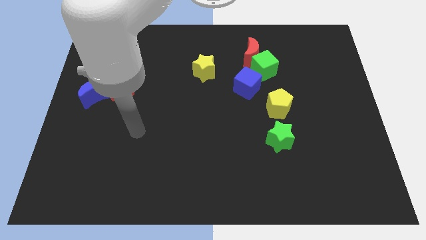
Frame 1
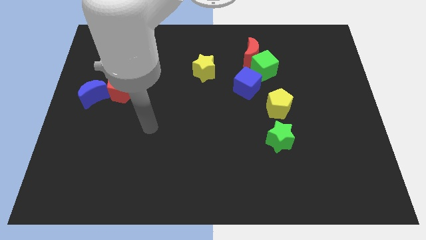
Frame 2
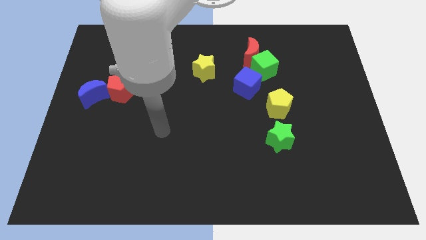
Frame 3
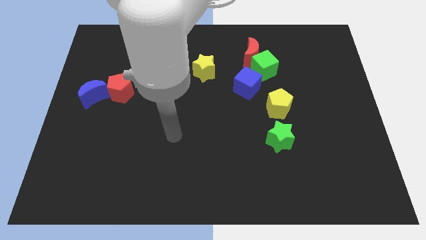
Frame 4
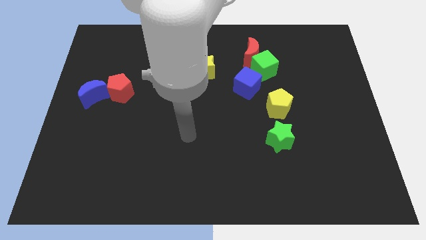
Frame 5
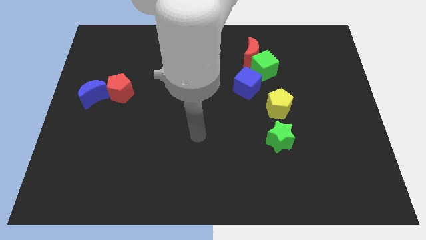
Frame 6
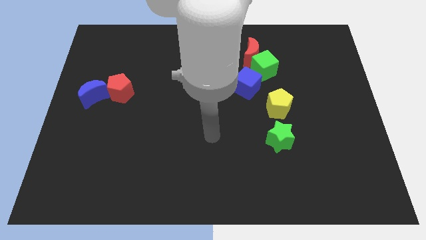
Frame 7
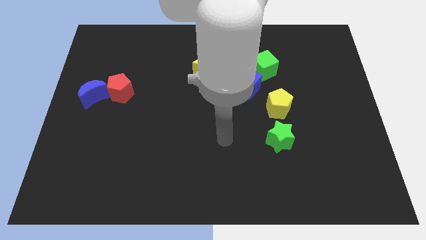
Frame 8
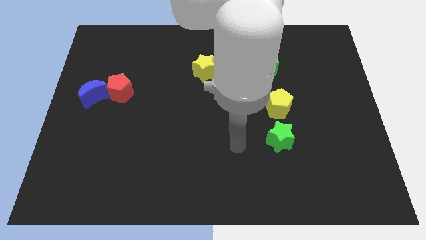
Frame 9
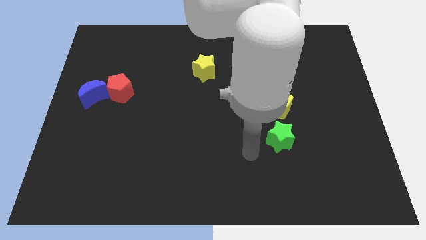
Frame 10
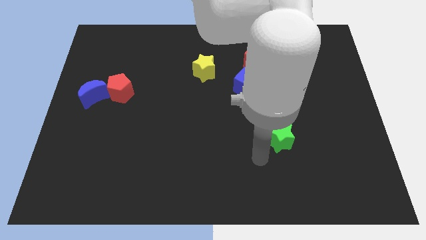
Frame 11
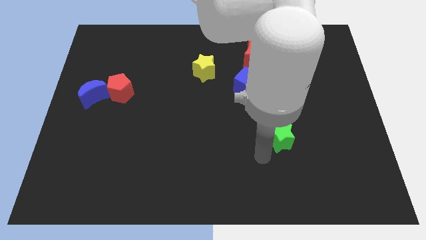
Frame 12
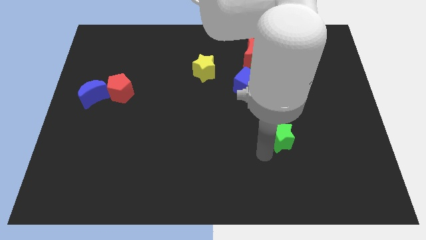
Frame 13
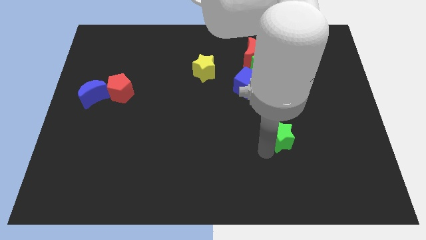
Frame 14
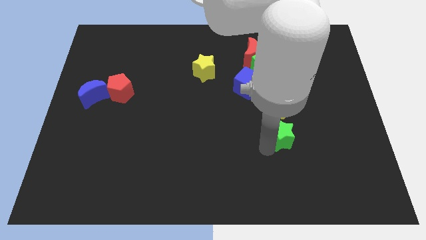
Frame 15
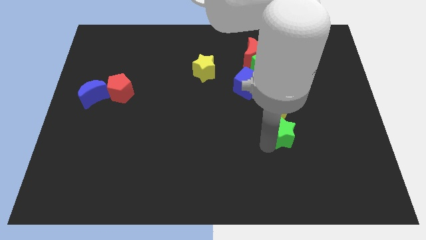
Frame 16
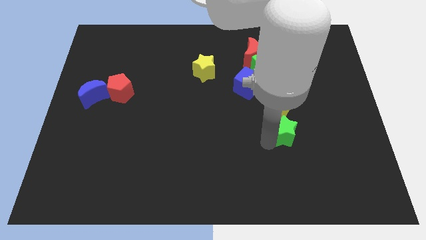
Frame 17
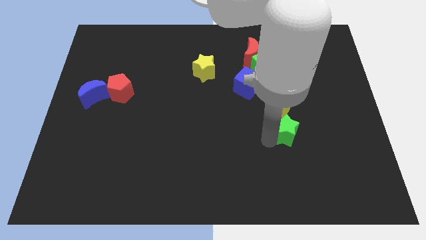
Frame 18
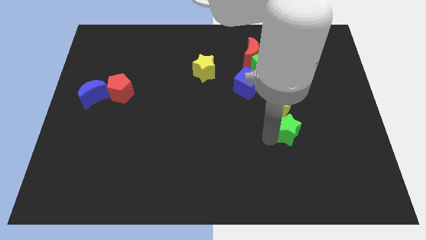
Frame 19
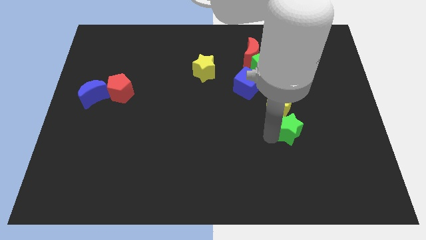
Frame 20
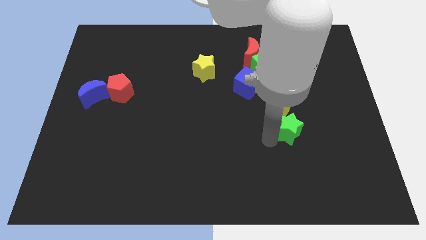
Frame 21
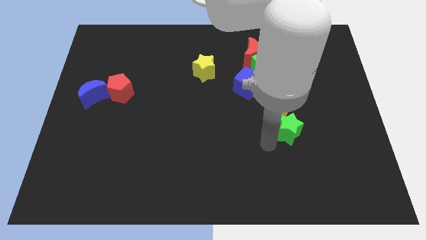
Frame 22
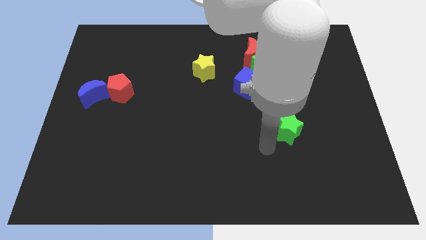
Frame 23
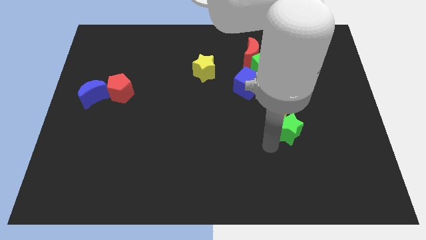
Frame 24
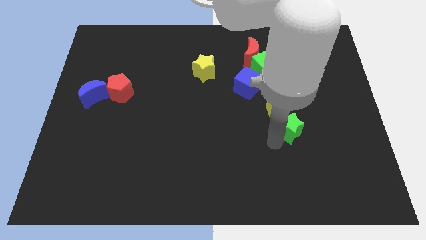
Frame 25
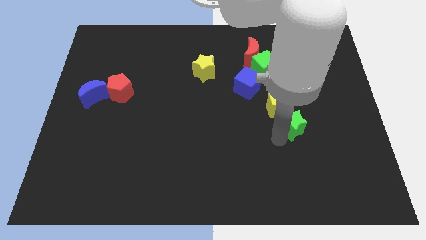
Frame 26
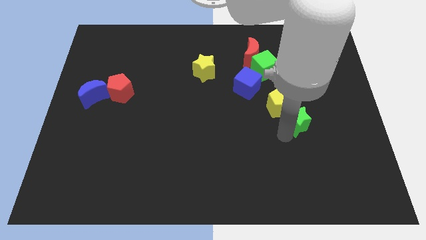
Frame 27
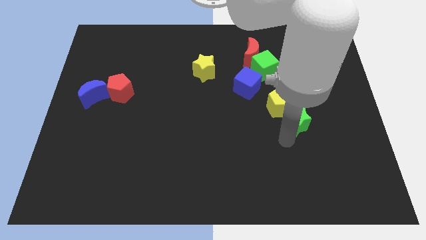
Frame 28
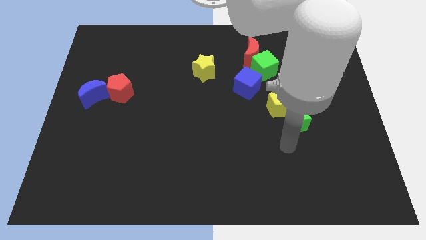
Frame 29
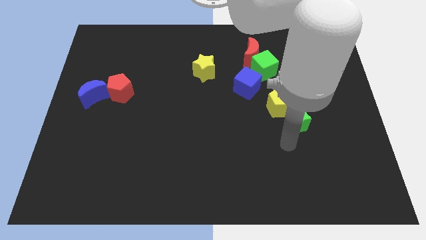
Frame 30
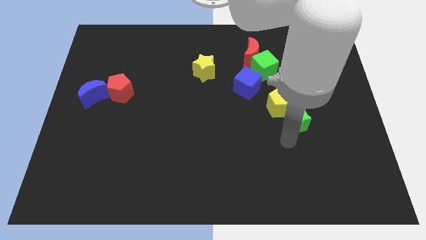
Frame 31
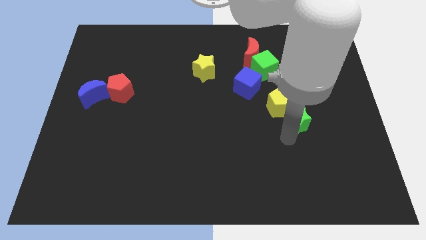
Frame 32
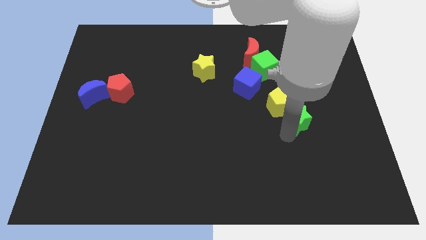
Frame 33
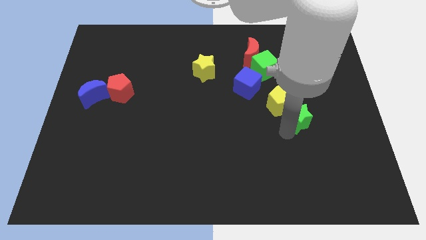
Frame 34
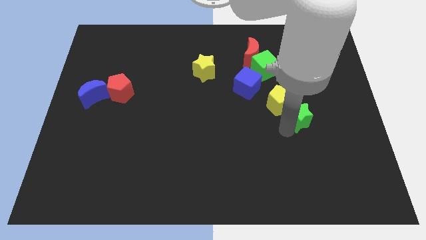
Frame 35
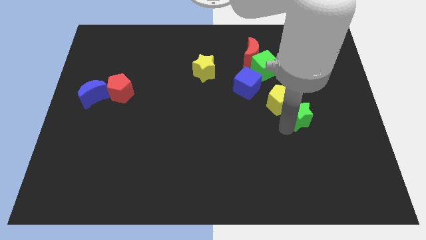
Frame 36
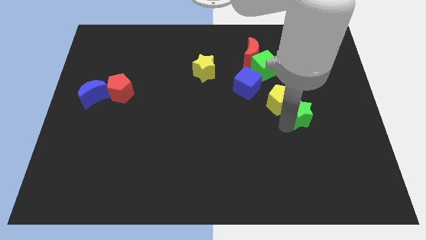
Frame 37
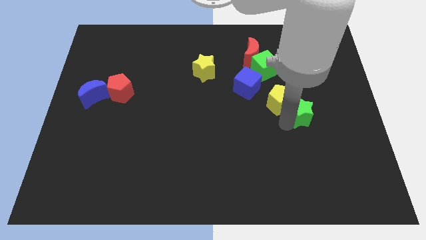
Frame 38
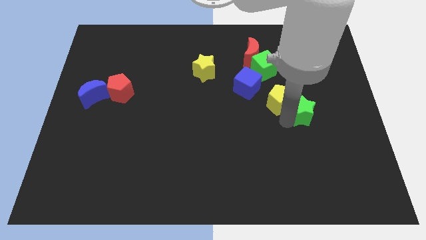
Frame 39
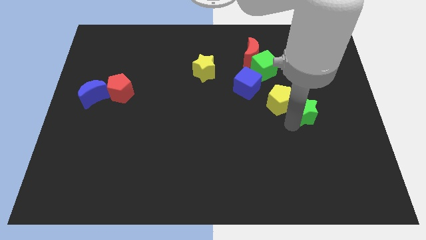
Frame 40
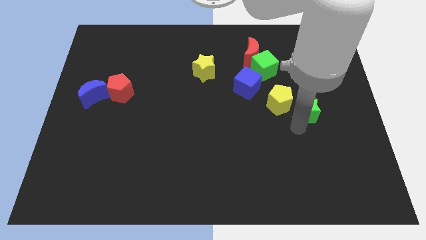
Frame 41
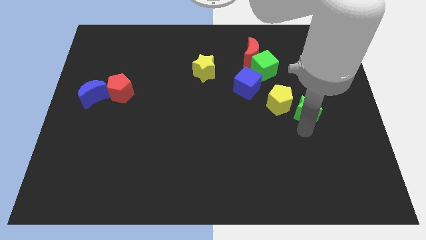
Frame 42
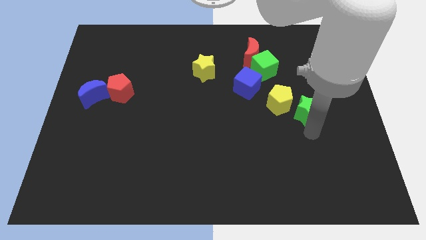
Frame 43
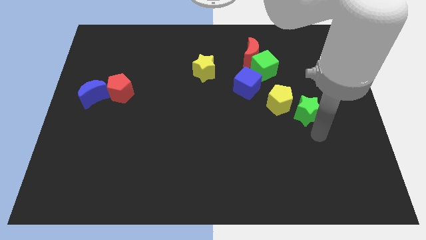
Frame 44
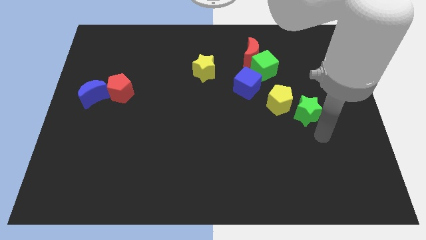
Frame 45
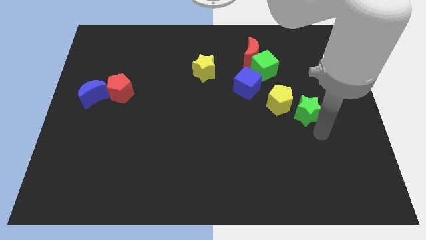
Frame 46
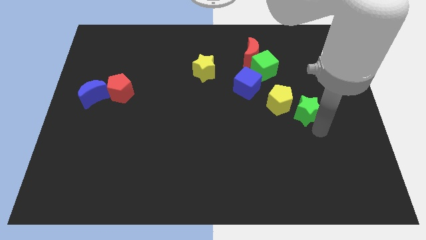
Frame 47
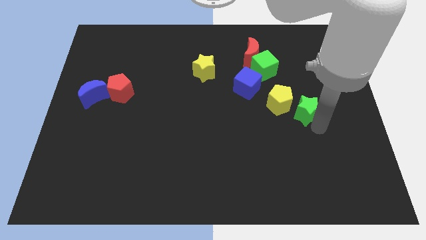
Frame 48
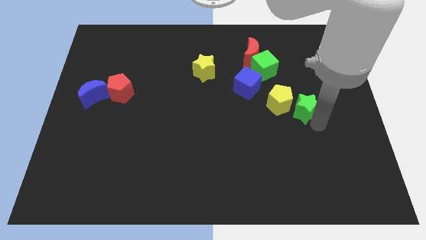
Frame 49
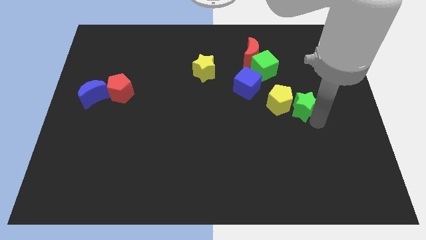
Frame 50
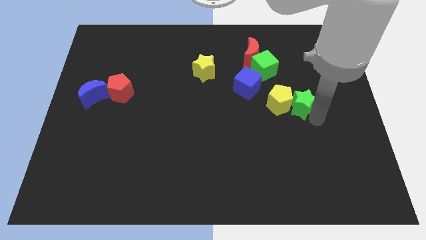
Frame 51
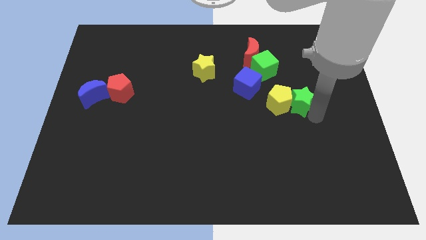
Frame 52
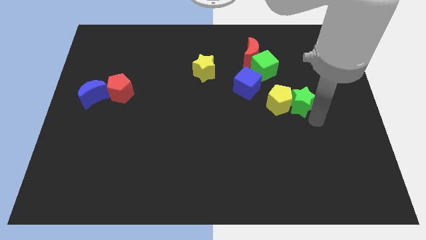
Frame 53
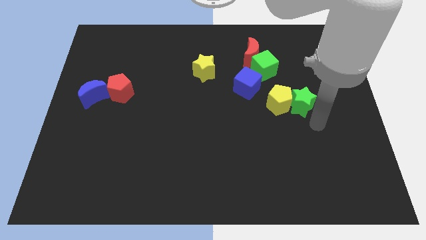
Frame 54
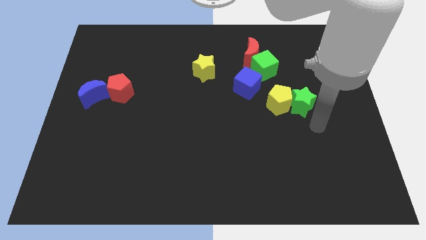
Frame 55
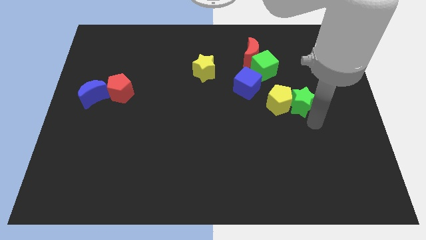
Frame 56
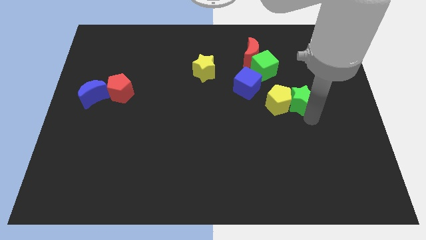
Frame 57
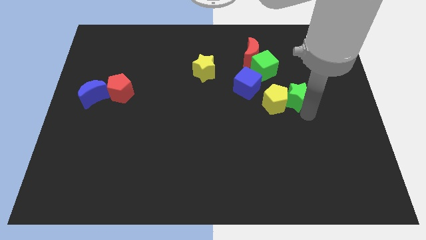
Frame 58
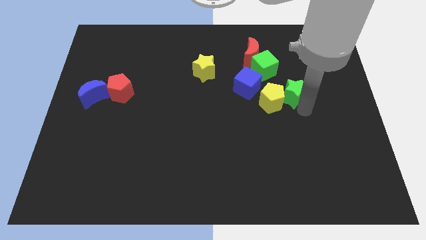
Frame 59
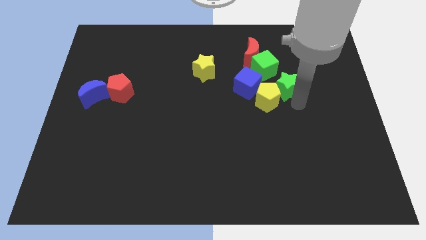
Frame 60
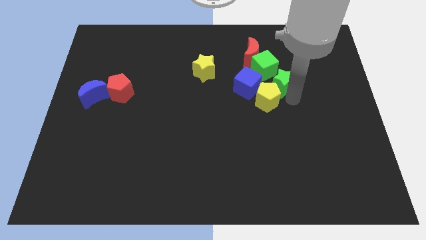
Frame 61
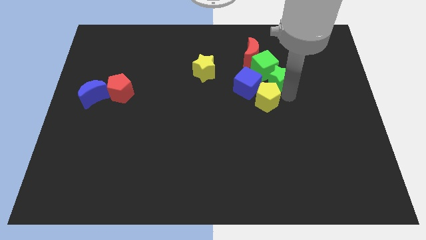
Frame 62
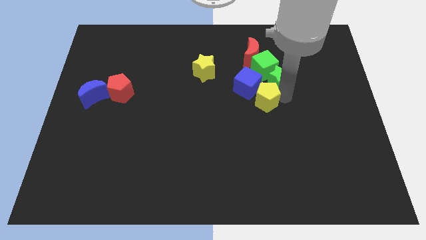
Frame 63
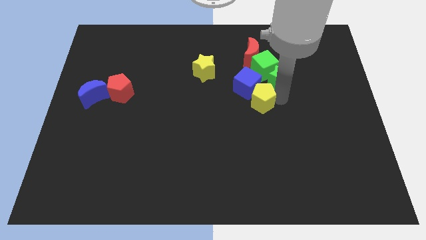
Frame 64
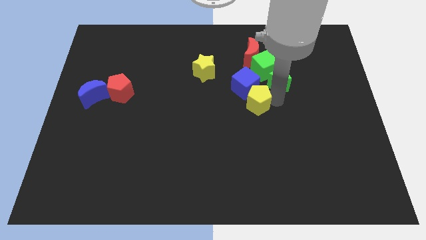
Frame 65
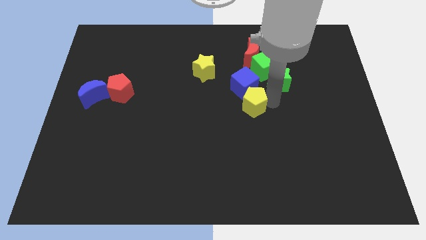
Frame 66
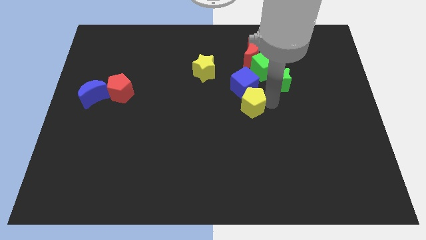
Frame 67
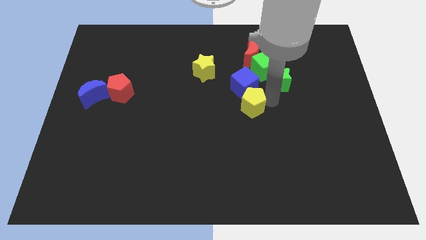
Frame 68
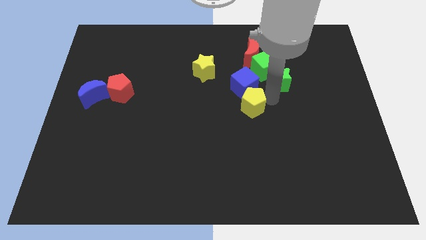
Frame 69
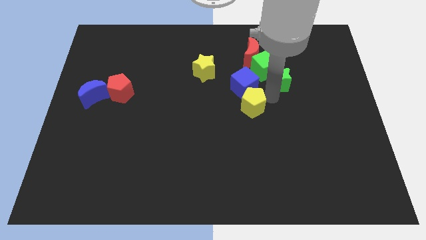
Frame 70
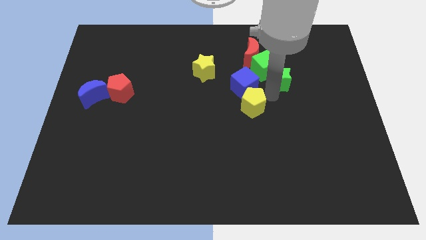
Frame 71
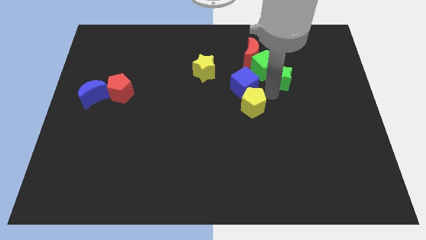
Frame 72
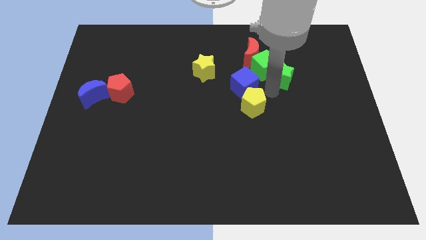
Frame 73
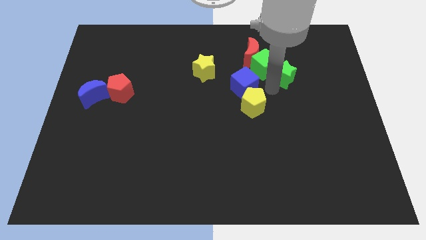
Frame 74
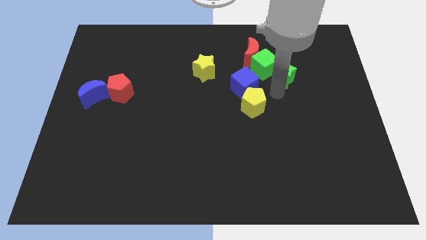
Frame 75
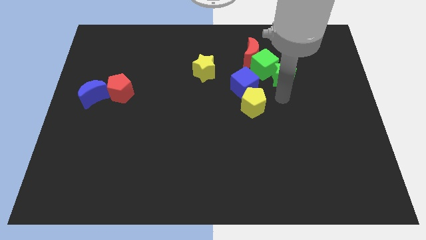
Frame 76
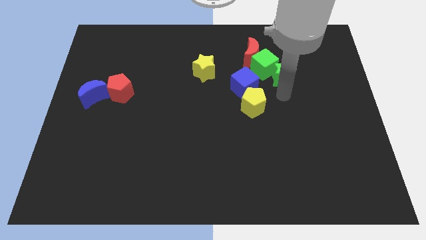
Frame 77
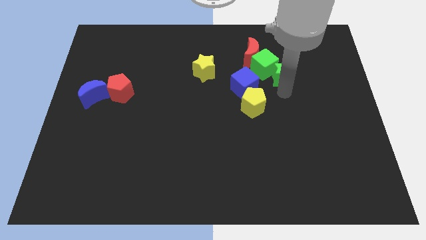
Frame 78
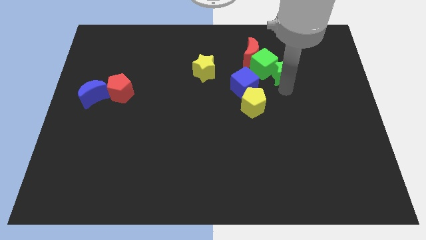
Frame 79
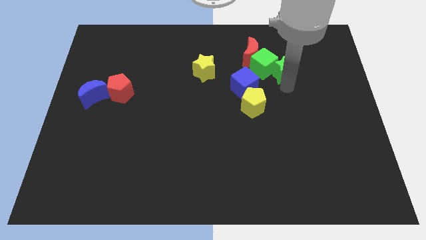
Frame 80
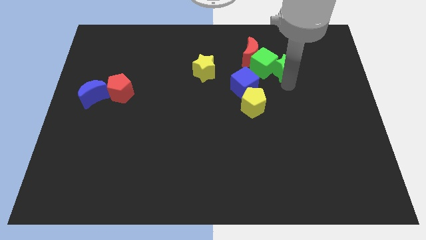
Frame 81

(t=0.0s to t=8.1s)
slide the green star to the top right of the green cube
